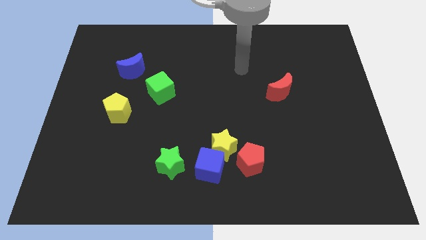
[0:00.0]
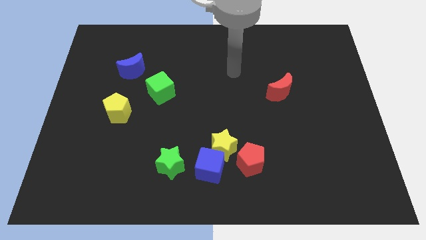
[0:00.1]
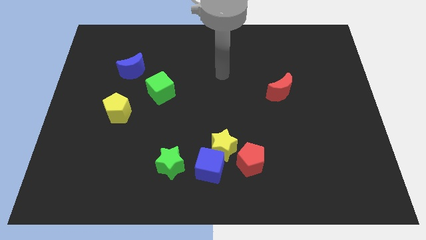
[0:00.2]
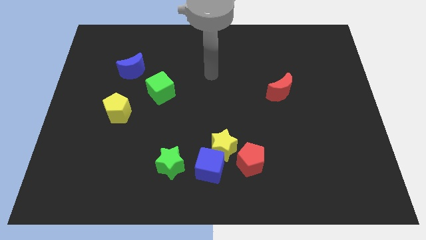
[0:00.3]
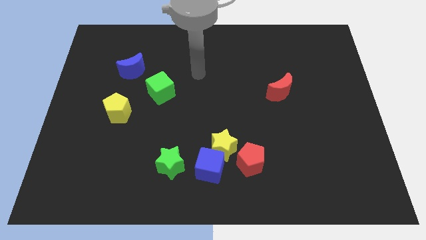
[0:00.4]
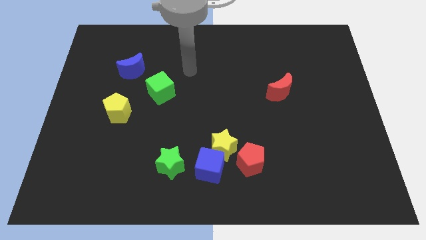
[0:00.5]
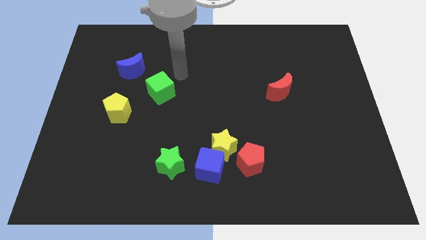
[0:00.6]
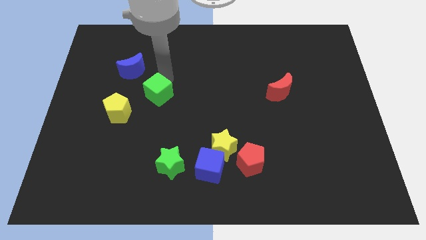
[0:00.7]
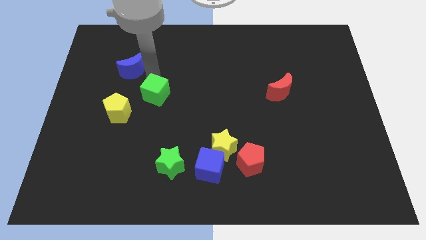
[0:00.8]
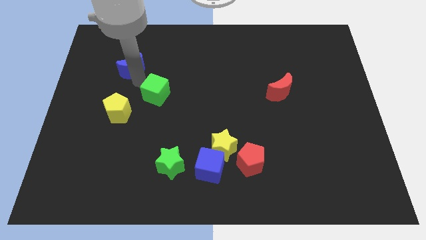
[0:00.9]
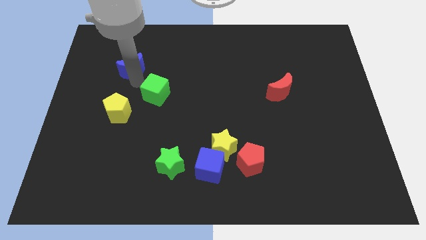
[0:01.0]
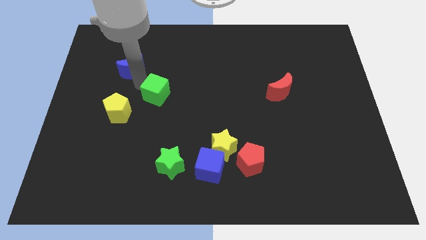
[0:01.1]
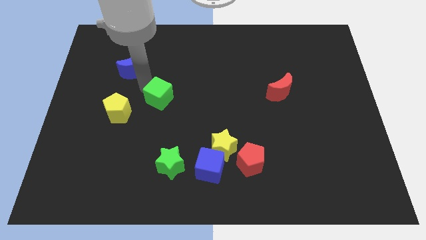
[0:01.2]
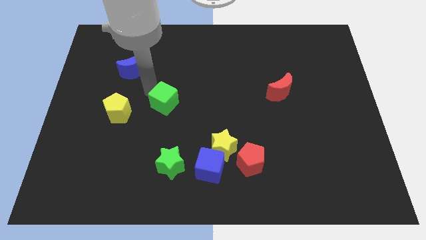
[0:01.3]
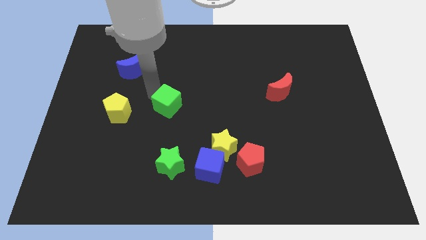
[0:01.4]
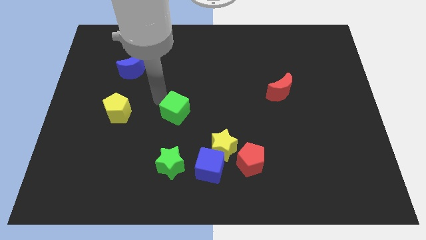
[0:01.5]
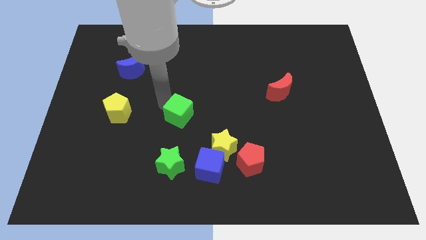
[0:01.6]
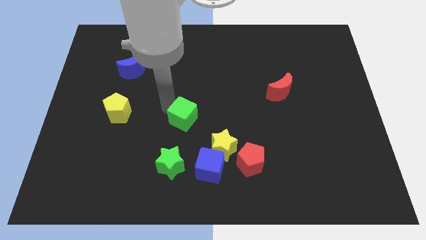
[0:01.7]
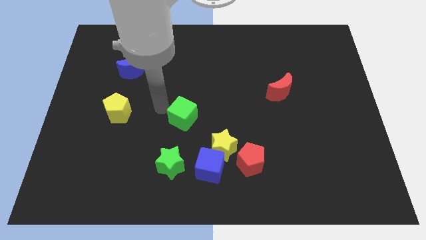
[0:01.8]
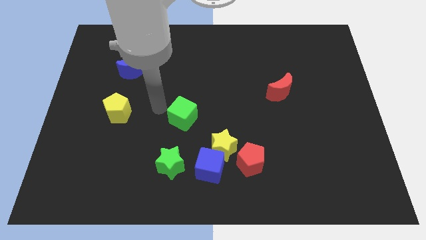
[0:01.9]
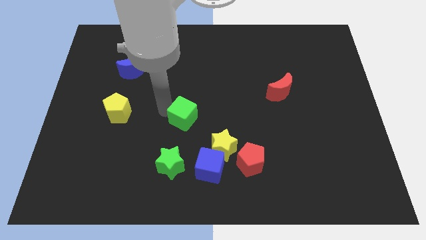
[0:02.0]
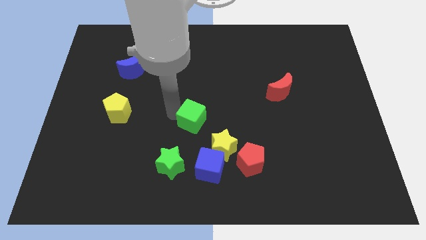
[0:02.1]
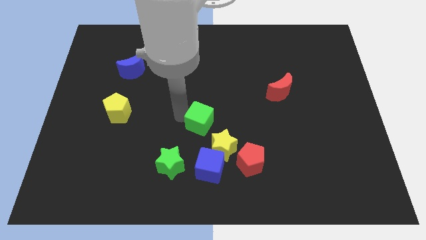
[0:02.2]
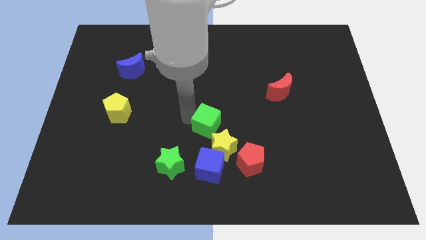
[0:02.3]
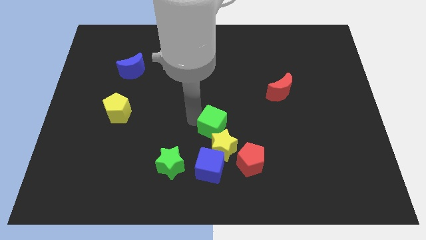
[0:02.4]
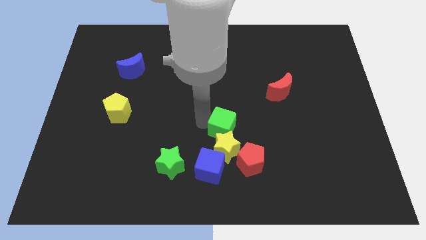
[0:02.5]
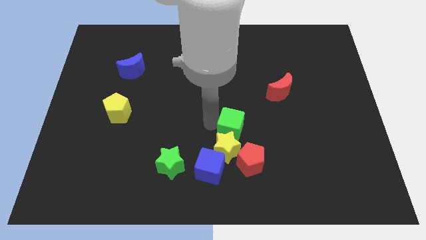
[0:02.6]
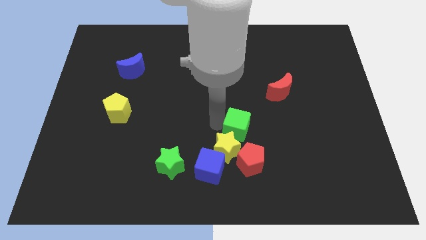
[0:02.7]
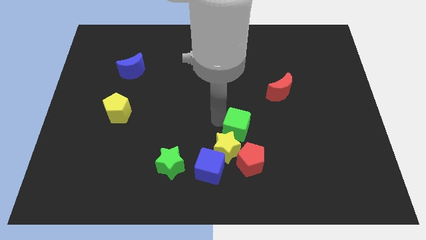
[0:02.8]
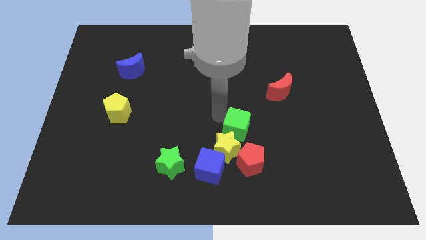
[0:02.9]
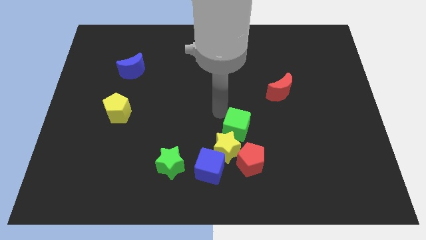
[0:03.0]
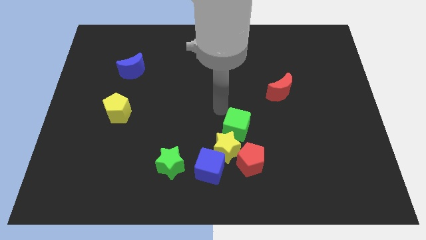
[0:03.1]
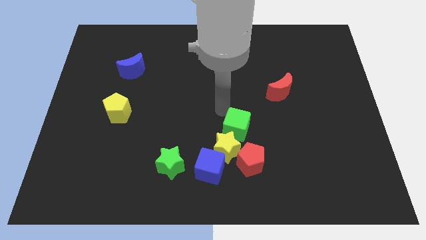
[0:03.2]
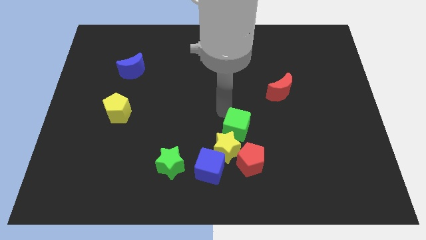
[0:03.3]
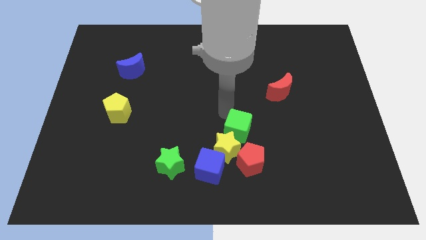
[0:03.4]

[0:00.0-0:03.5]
move the green cube downwards and right diagonally

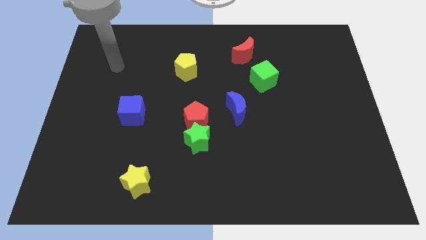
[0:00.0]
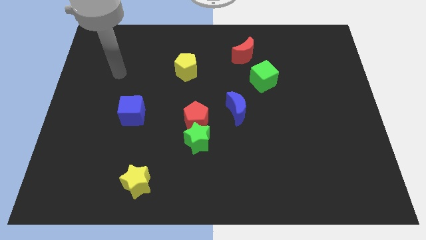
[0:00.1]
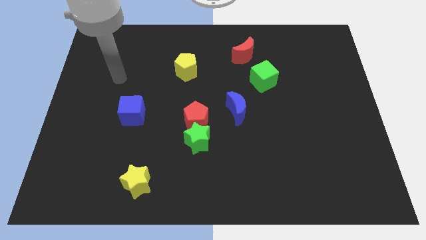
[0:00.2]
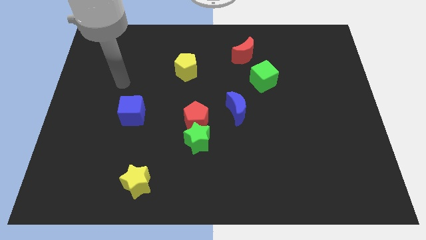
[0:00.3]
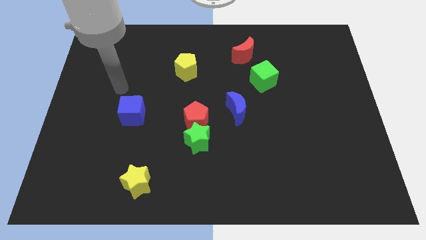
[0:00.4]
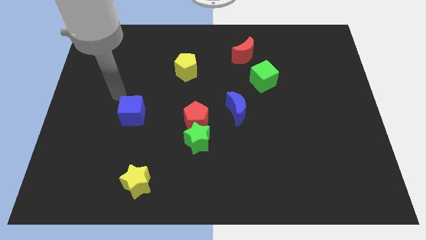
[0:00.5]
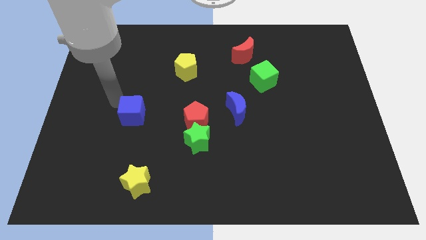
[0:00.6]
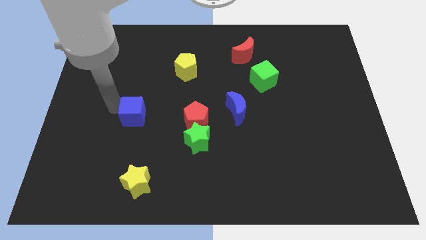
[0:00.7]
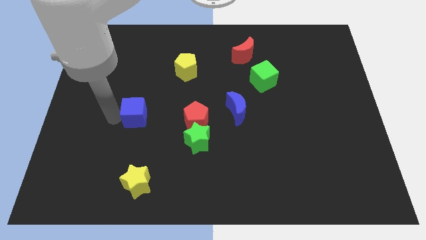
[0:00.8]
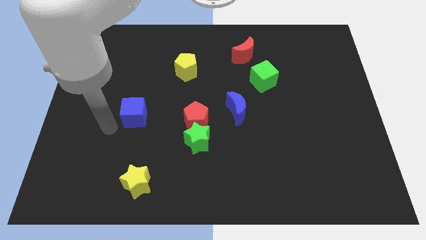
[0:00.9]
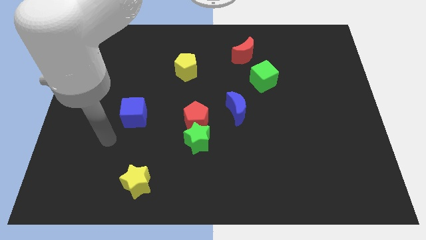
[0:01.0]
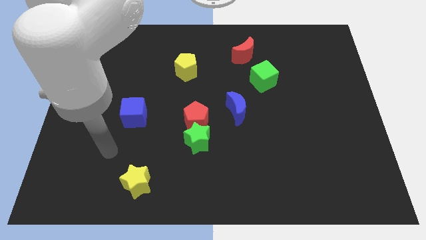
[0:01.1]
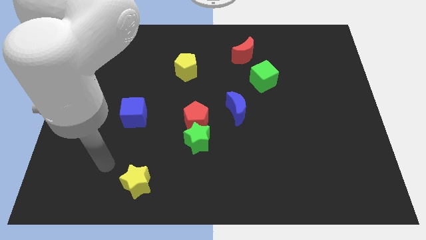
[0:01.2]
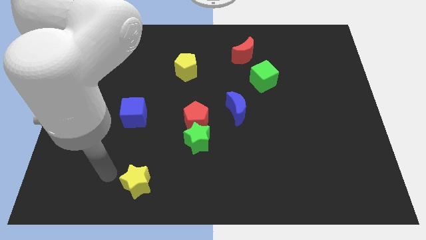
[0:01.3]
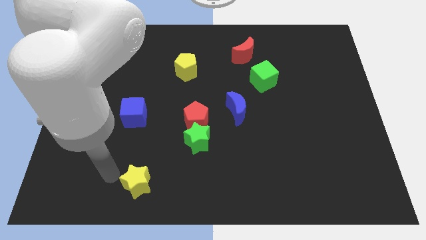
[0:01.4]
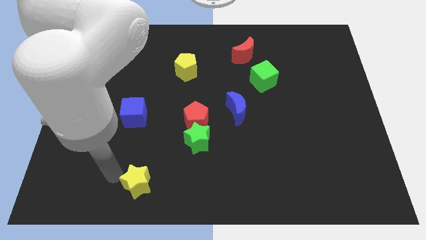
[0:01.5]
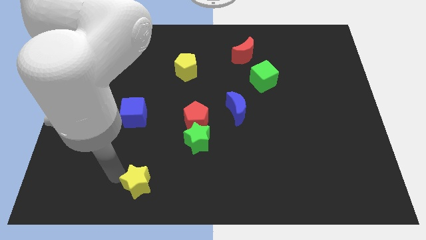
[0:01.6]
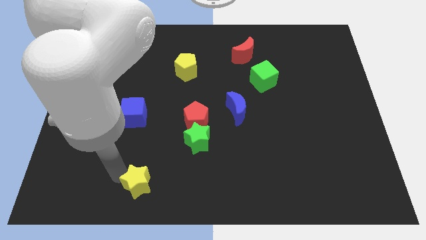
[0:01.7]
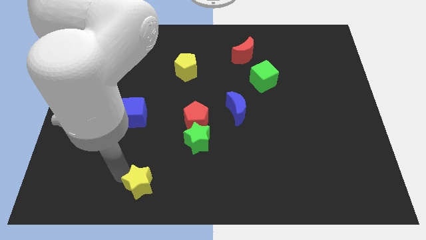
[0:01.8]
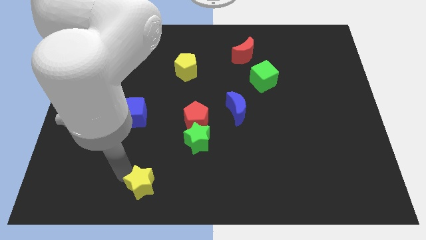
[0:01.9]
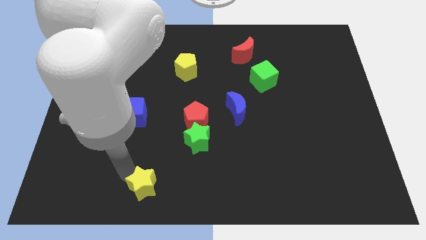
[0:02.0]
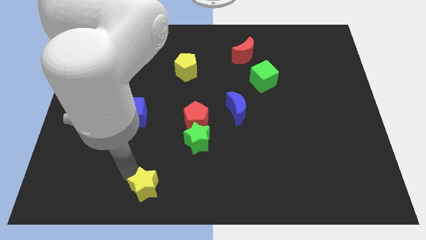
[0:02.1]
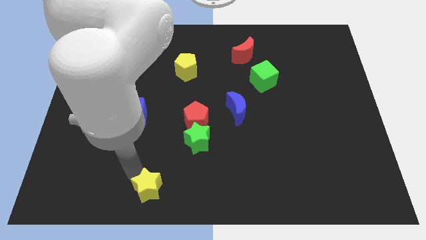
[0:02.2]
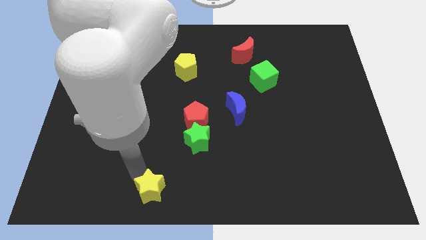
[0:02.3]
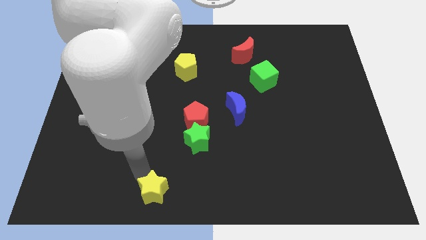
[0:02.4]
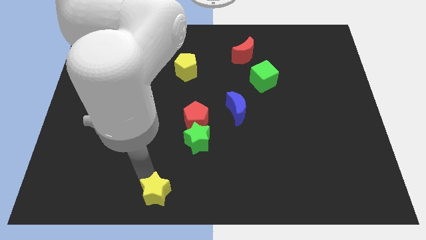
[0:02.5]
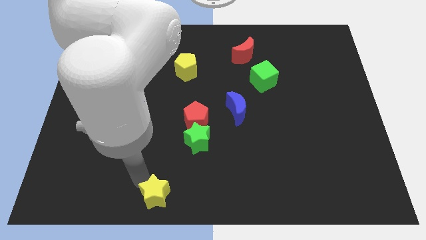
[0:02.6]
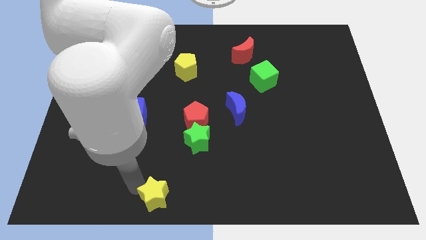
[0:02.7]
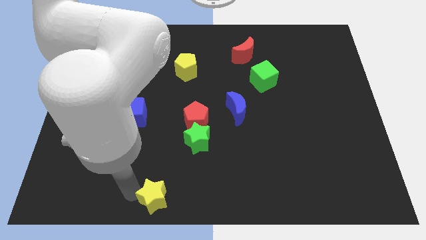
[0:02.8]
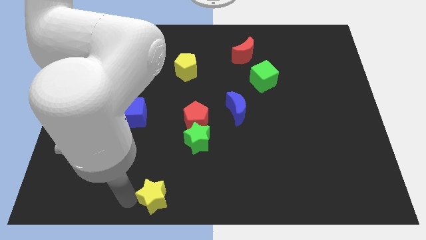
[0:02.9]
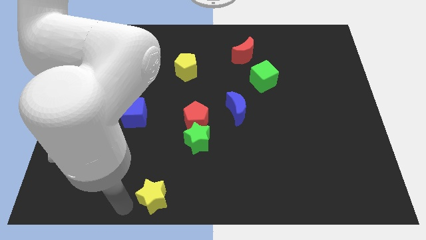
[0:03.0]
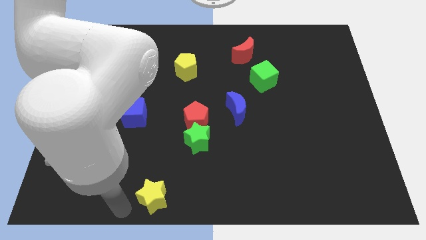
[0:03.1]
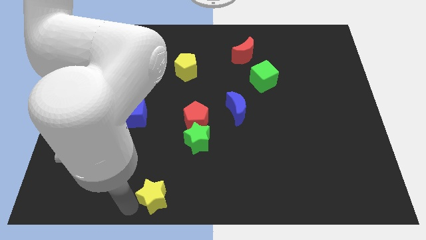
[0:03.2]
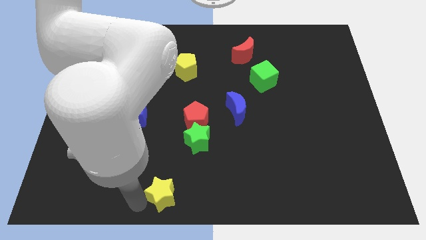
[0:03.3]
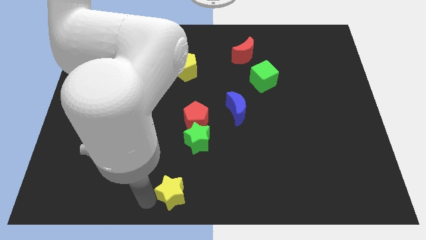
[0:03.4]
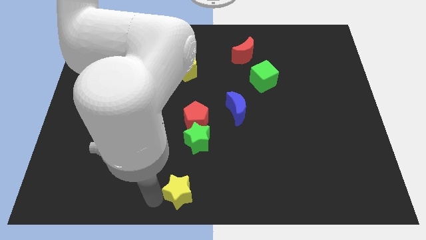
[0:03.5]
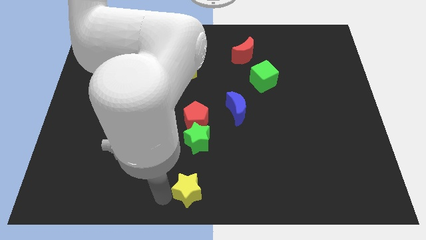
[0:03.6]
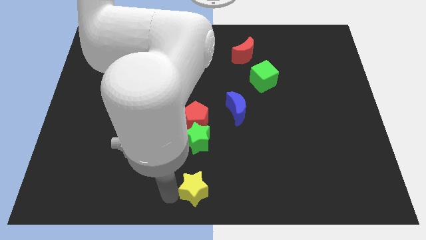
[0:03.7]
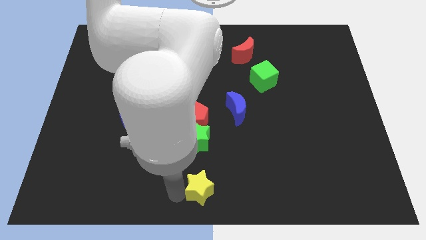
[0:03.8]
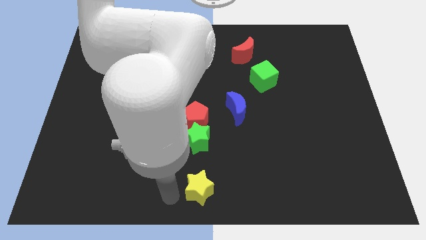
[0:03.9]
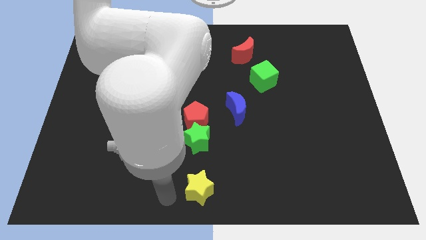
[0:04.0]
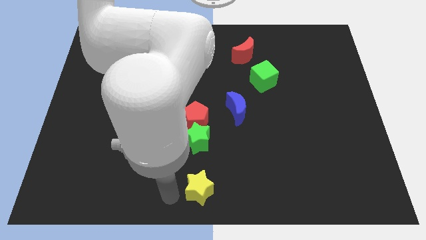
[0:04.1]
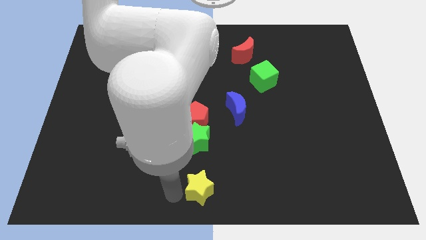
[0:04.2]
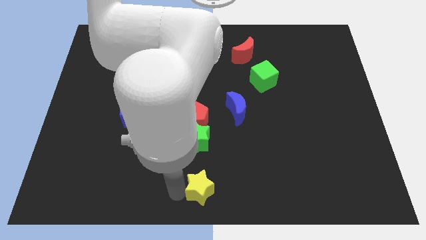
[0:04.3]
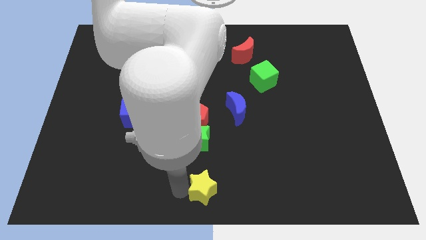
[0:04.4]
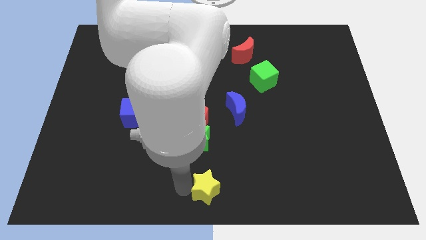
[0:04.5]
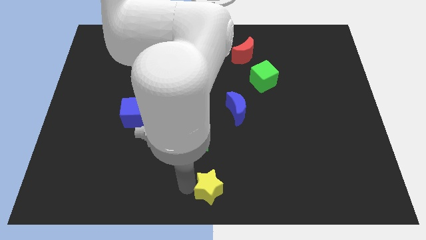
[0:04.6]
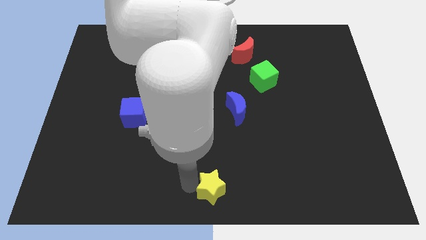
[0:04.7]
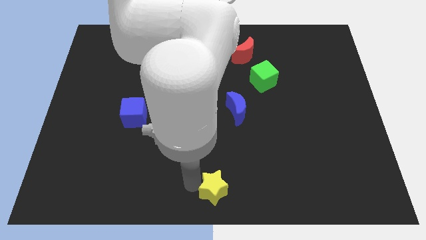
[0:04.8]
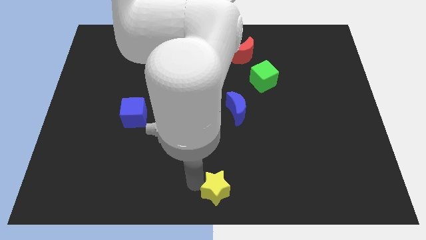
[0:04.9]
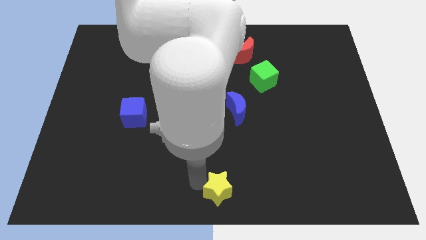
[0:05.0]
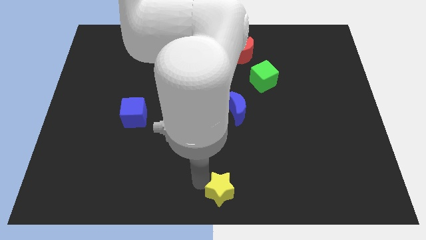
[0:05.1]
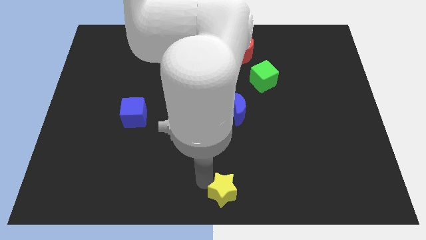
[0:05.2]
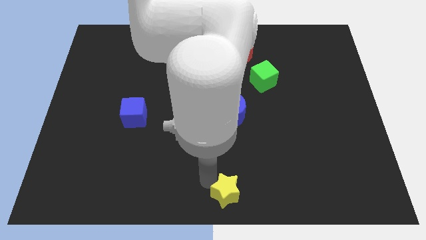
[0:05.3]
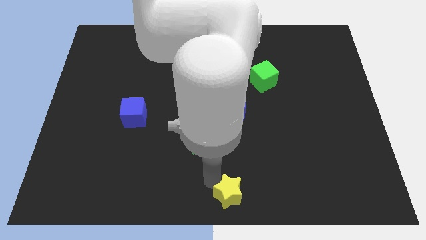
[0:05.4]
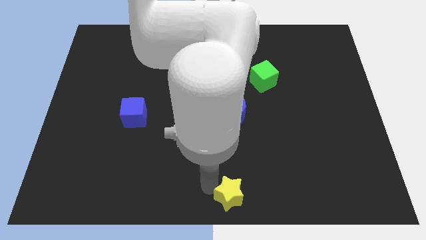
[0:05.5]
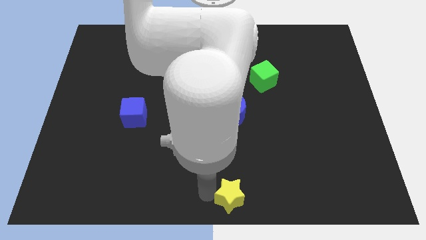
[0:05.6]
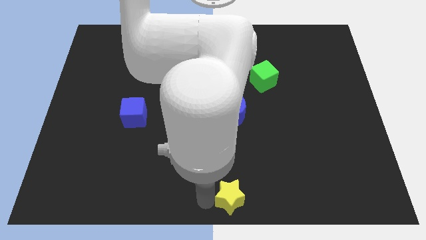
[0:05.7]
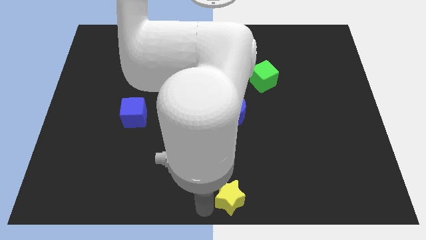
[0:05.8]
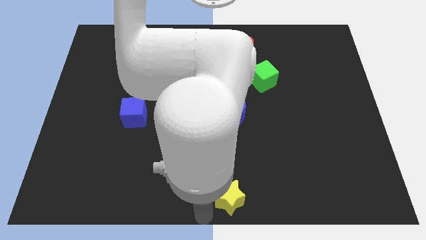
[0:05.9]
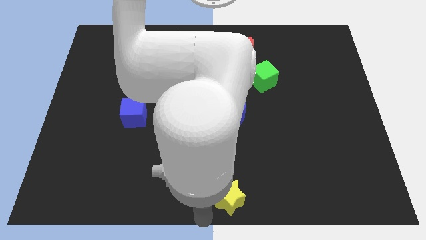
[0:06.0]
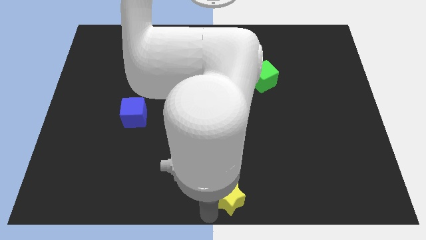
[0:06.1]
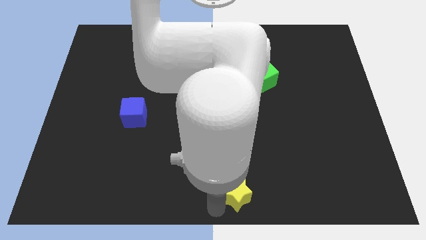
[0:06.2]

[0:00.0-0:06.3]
push the yellow star right
